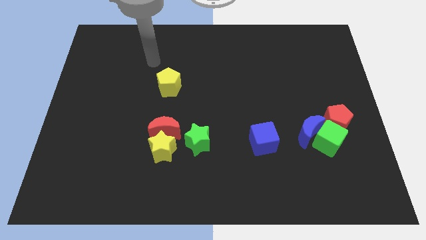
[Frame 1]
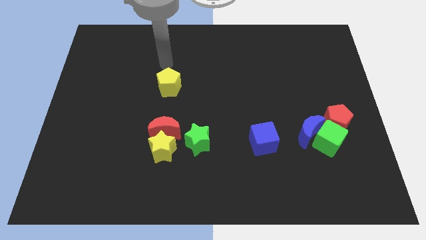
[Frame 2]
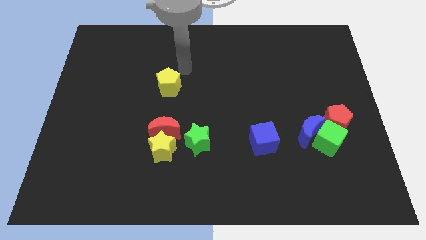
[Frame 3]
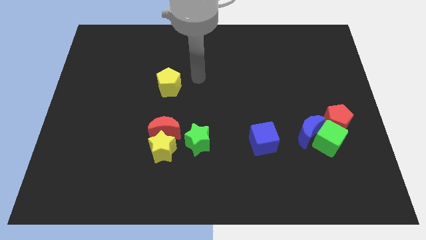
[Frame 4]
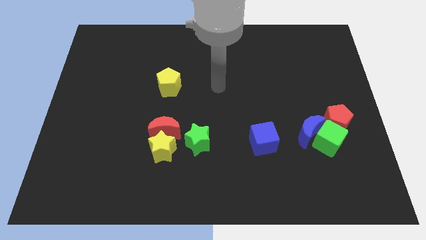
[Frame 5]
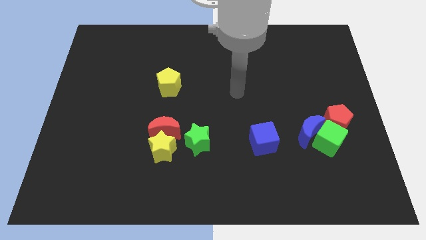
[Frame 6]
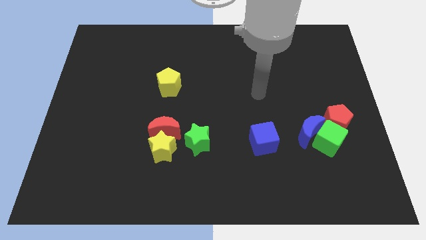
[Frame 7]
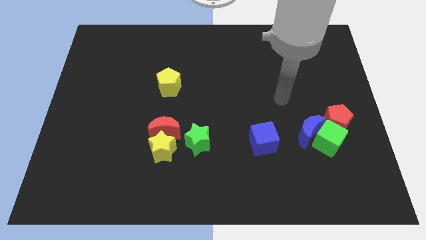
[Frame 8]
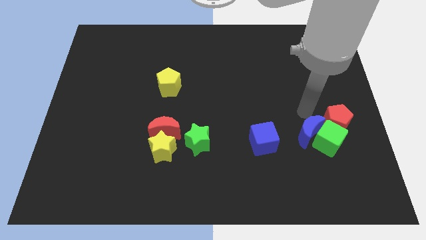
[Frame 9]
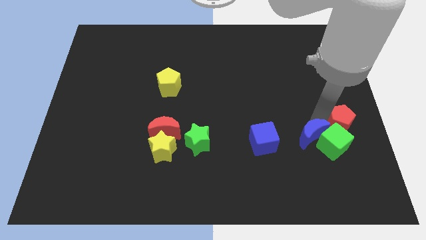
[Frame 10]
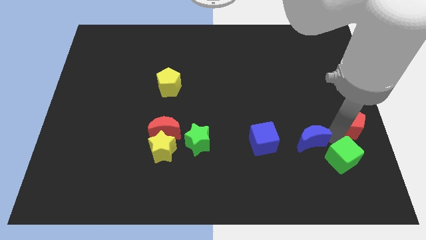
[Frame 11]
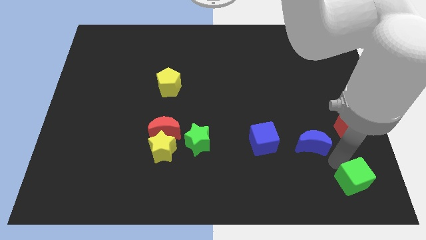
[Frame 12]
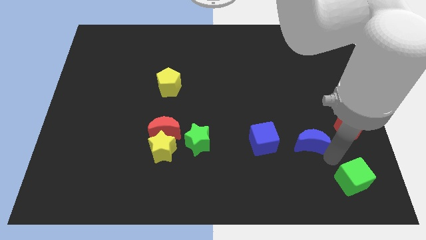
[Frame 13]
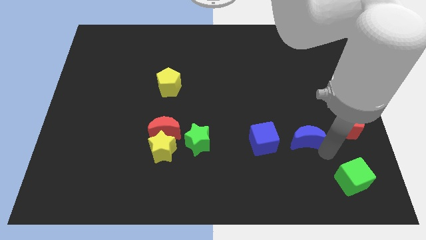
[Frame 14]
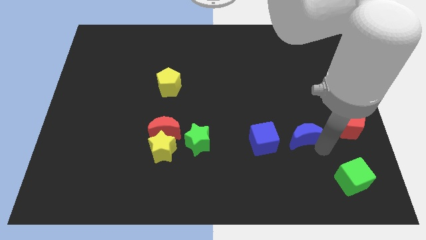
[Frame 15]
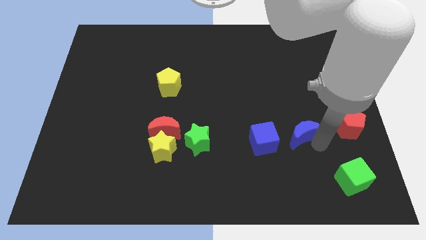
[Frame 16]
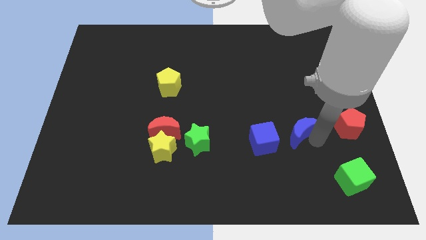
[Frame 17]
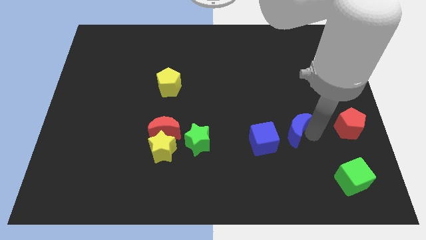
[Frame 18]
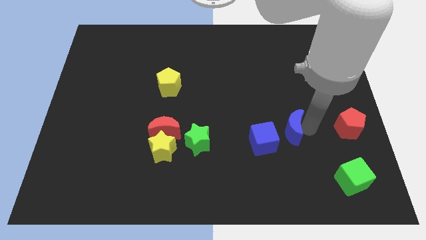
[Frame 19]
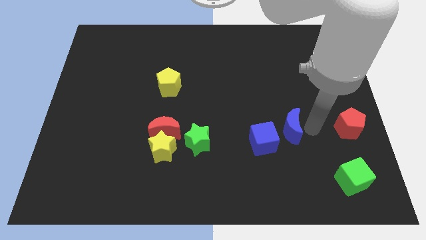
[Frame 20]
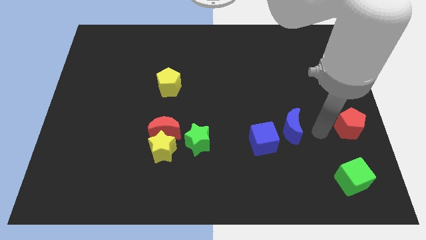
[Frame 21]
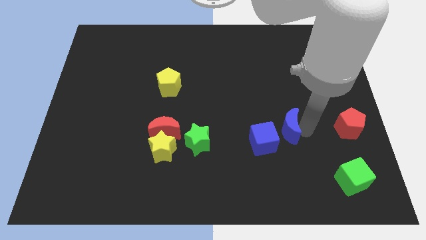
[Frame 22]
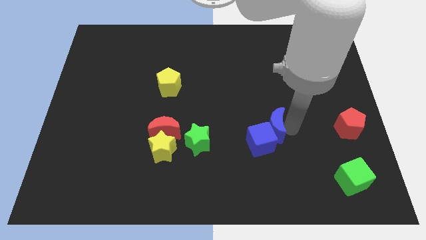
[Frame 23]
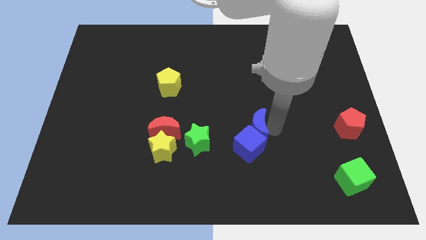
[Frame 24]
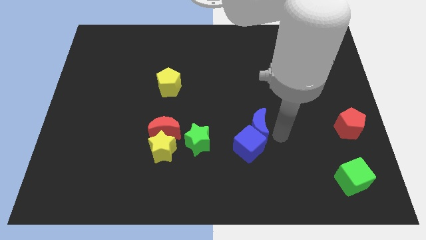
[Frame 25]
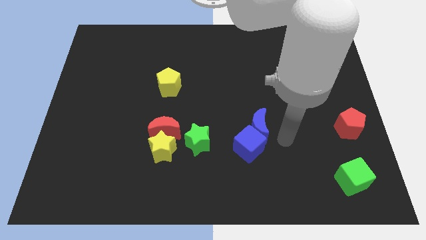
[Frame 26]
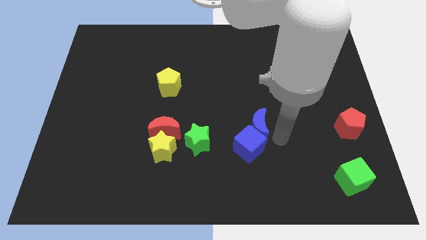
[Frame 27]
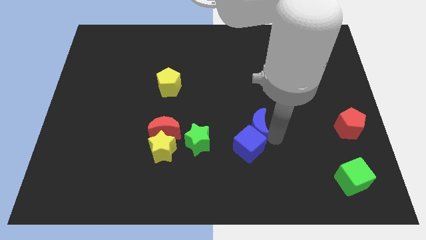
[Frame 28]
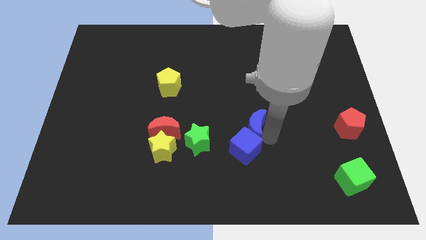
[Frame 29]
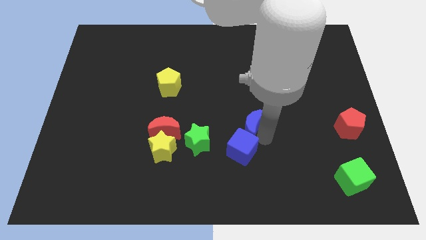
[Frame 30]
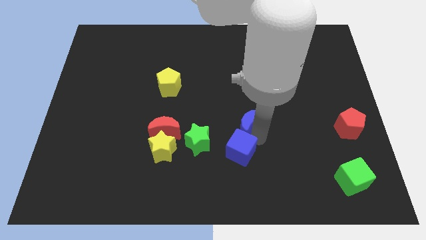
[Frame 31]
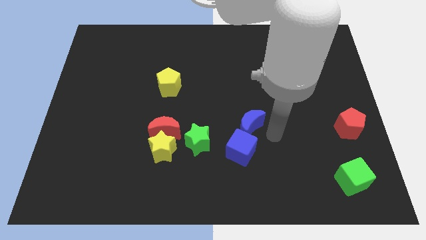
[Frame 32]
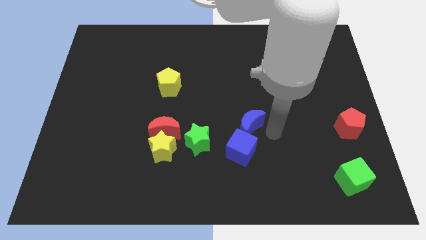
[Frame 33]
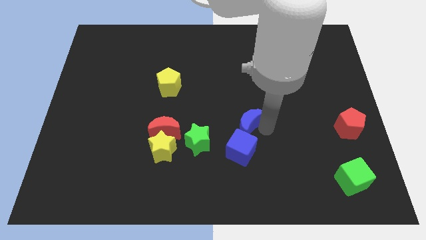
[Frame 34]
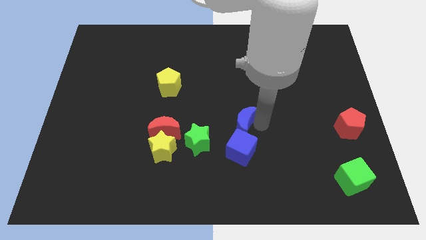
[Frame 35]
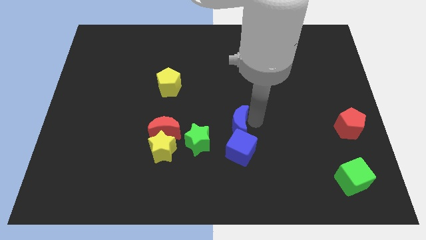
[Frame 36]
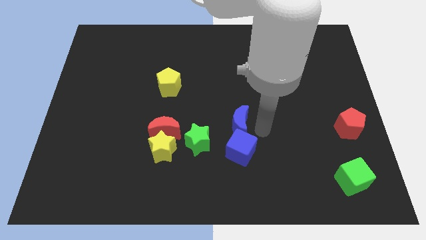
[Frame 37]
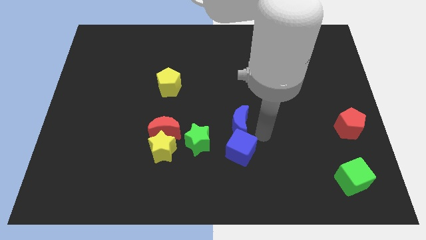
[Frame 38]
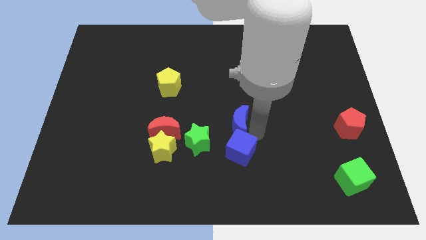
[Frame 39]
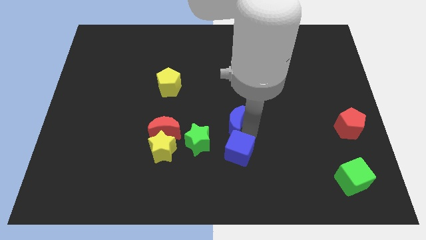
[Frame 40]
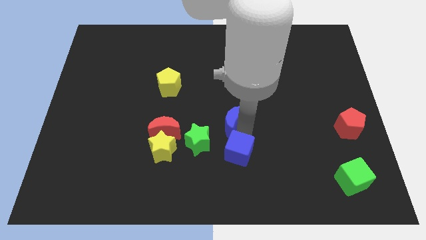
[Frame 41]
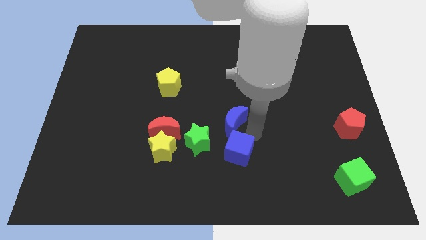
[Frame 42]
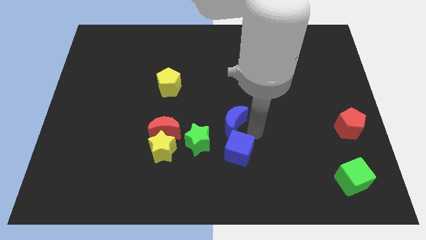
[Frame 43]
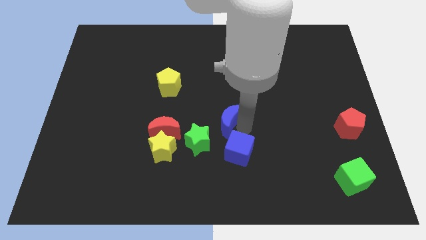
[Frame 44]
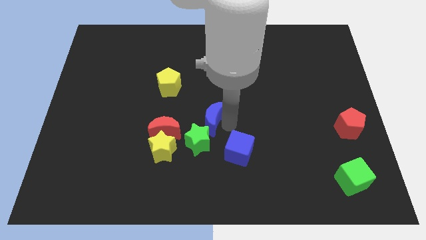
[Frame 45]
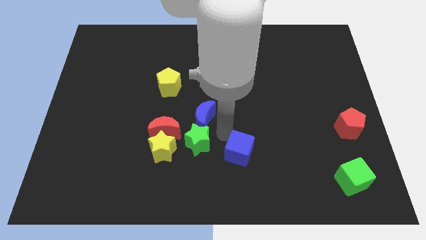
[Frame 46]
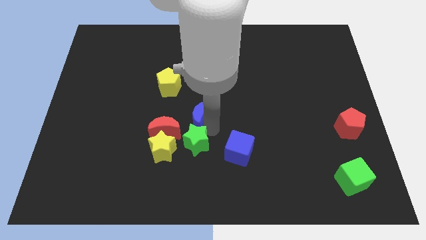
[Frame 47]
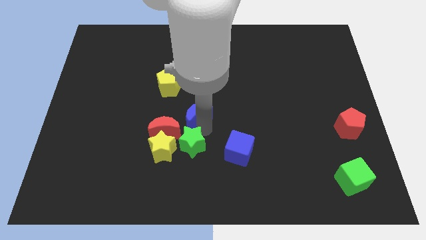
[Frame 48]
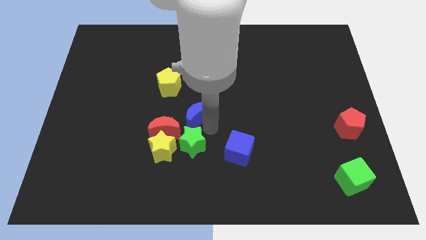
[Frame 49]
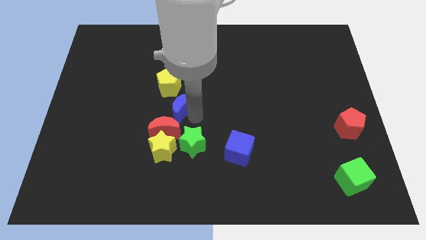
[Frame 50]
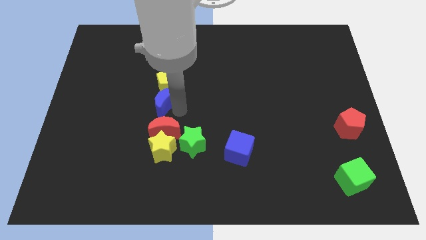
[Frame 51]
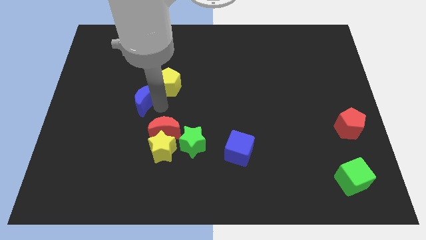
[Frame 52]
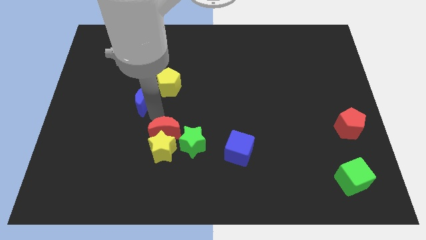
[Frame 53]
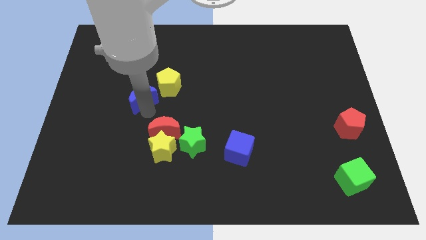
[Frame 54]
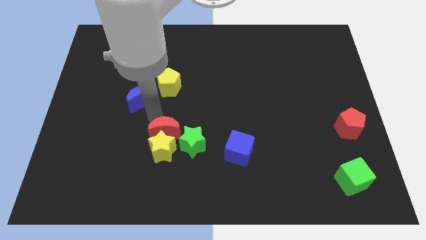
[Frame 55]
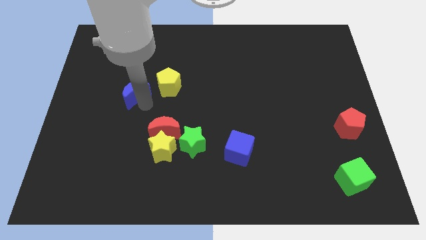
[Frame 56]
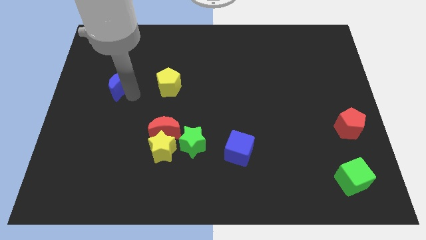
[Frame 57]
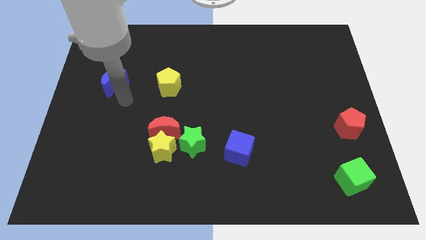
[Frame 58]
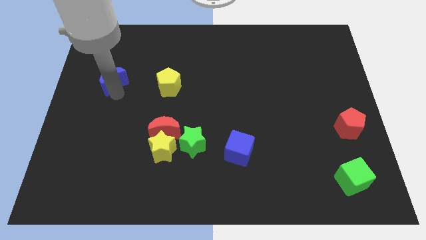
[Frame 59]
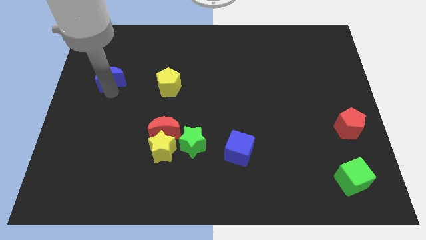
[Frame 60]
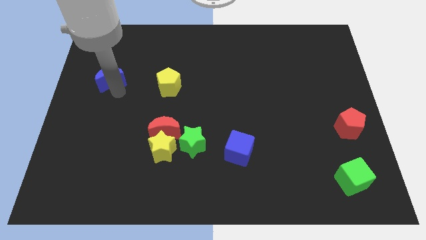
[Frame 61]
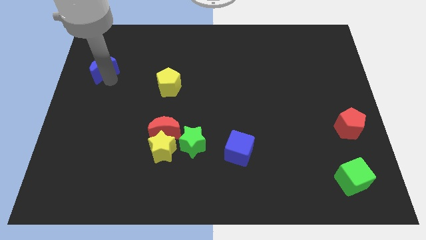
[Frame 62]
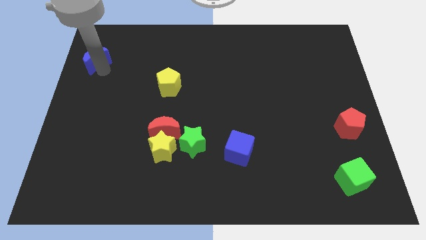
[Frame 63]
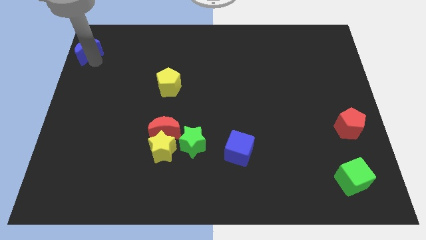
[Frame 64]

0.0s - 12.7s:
push the blue moon to the top left of the board

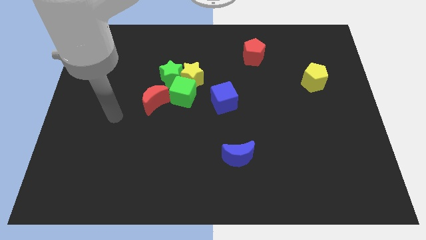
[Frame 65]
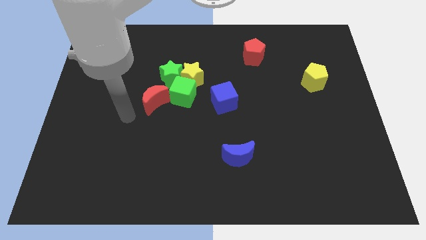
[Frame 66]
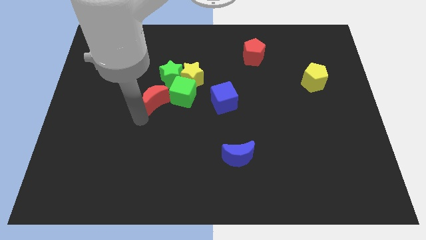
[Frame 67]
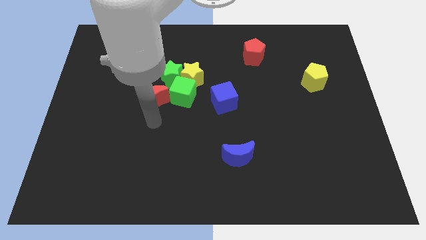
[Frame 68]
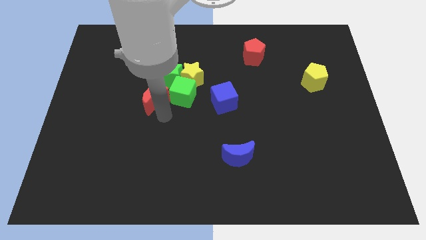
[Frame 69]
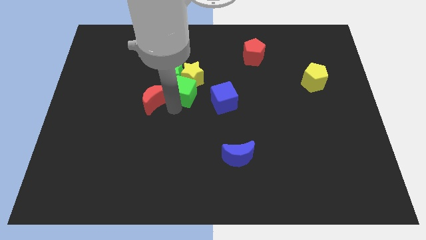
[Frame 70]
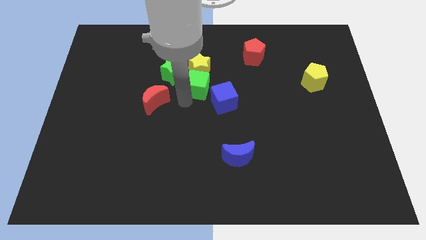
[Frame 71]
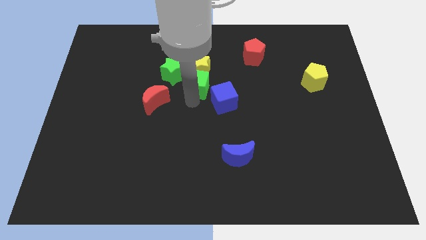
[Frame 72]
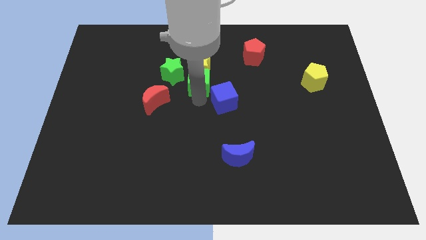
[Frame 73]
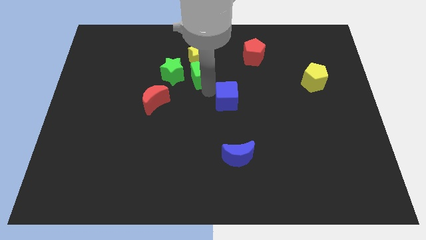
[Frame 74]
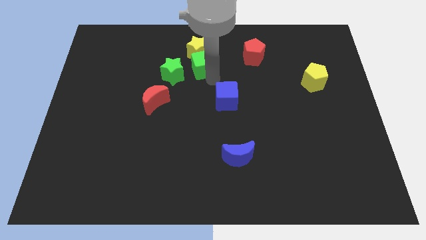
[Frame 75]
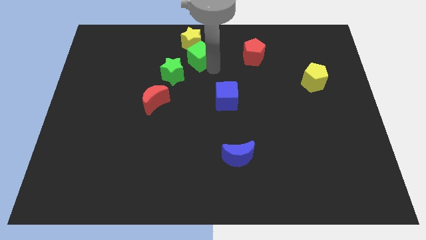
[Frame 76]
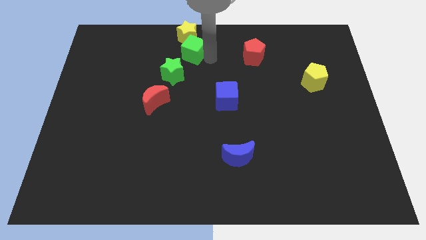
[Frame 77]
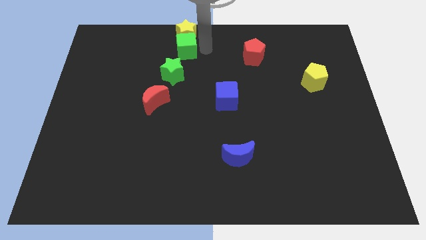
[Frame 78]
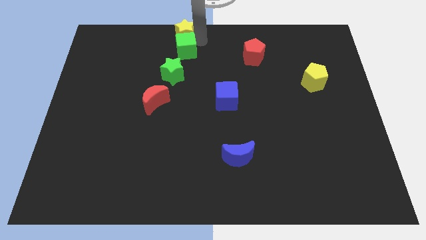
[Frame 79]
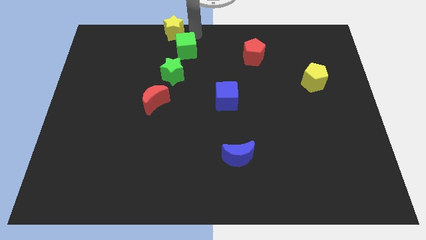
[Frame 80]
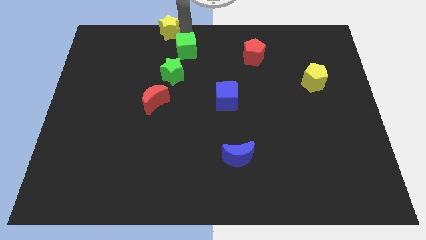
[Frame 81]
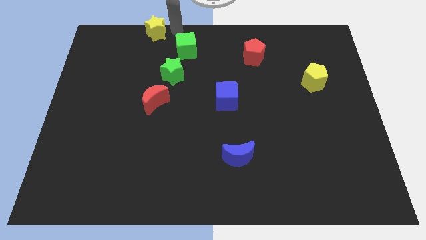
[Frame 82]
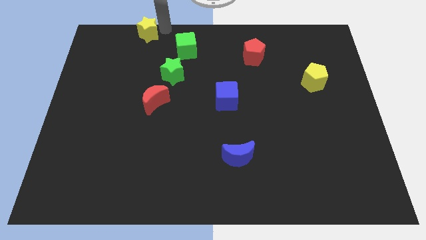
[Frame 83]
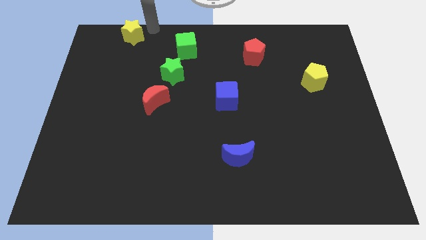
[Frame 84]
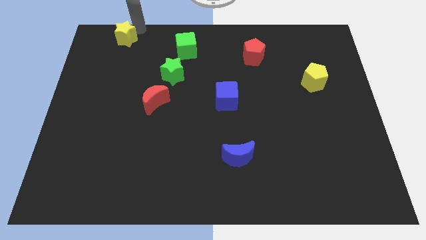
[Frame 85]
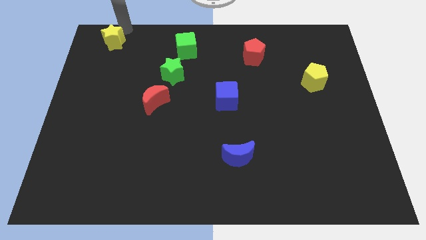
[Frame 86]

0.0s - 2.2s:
push the yellow star to the top left of the board
